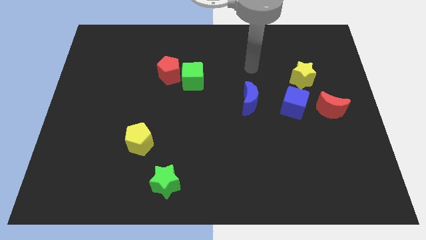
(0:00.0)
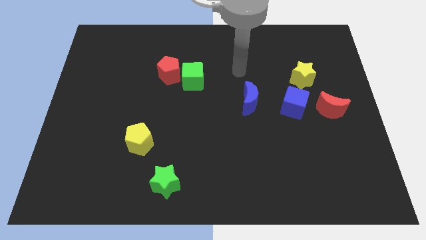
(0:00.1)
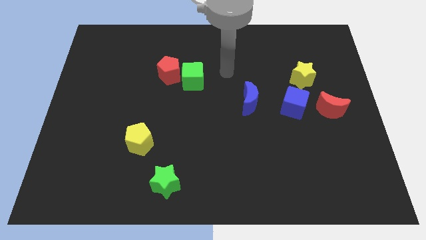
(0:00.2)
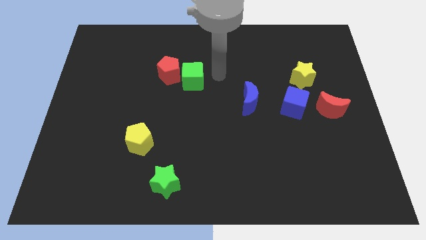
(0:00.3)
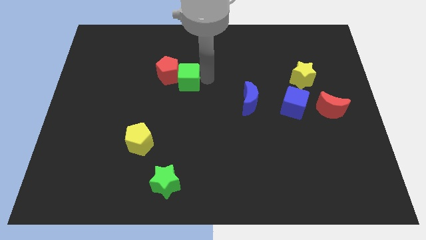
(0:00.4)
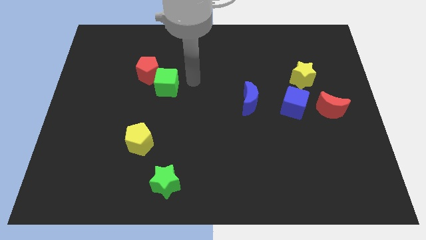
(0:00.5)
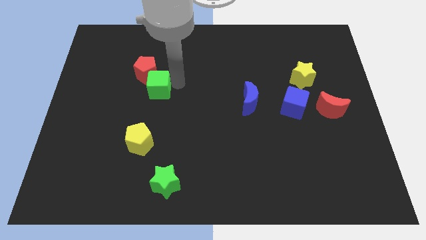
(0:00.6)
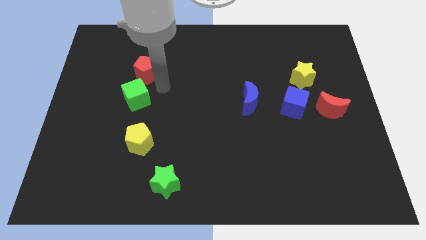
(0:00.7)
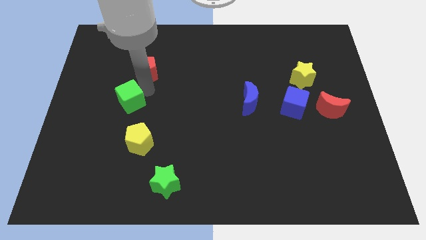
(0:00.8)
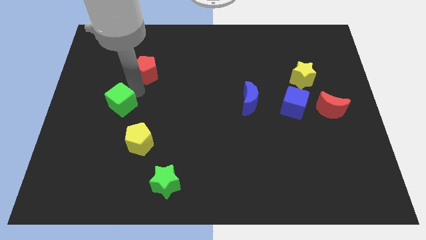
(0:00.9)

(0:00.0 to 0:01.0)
move the red pentagon away from the green cube

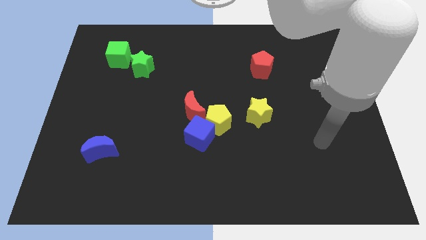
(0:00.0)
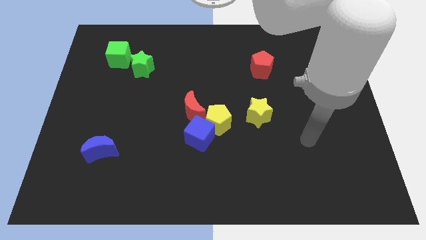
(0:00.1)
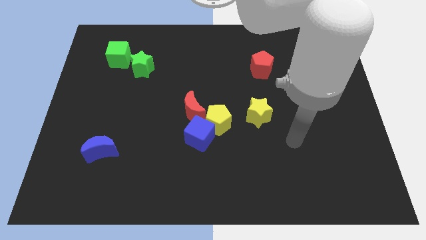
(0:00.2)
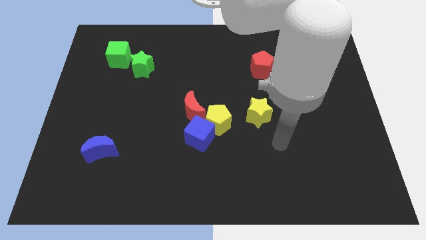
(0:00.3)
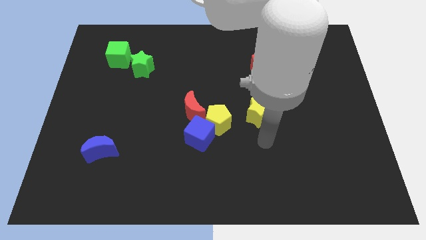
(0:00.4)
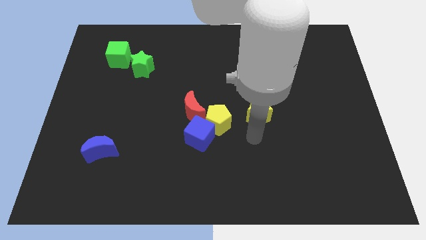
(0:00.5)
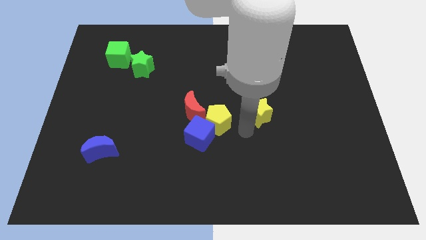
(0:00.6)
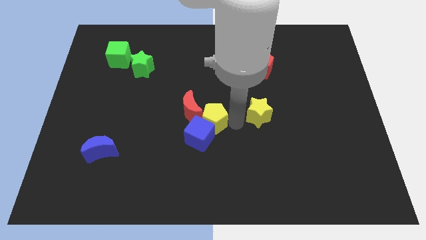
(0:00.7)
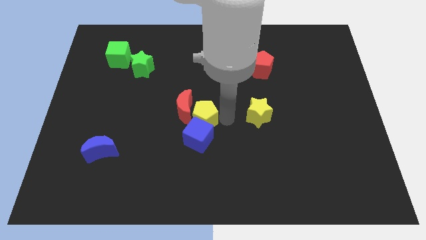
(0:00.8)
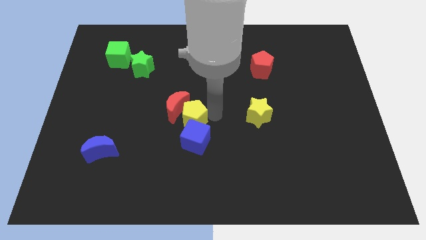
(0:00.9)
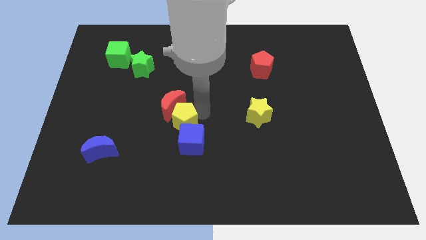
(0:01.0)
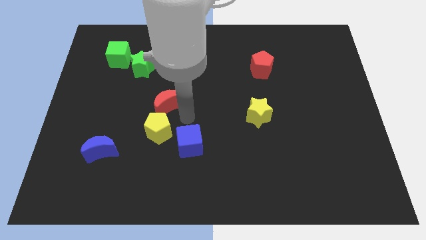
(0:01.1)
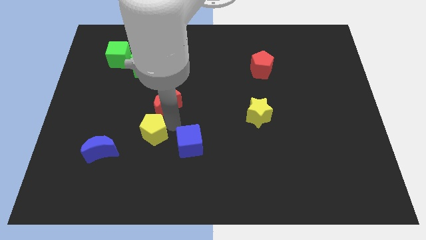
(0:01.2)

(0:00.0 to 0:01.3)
separate the blue cube from the yellow pentagon and red moon

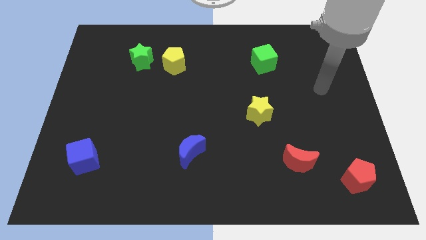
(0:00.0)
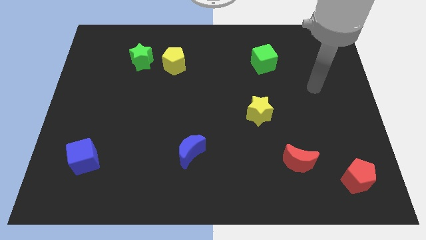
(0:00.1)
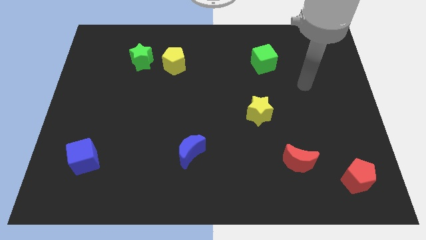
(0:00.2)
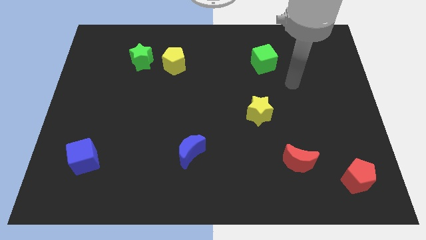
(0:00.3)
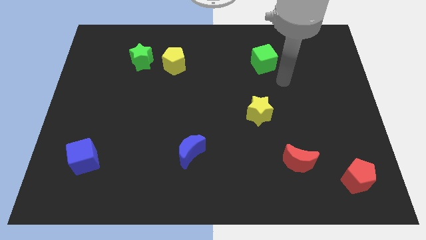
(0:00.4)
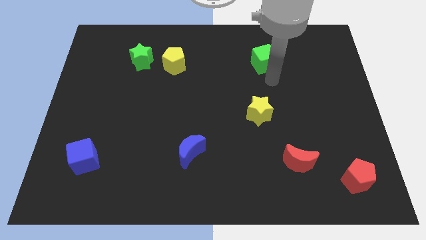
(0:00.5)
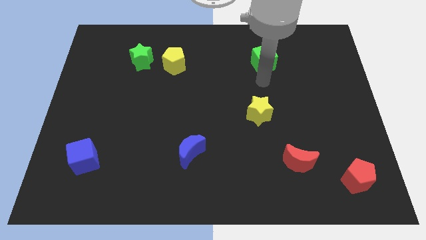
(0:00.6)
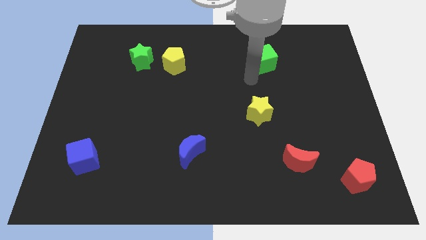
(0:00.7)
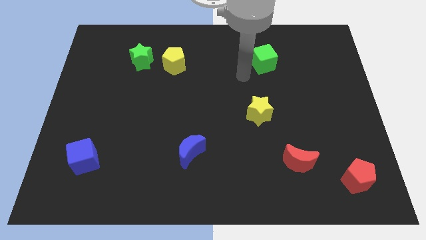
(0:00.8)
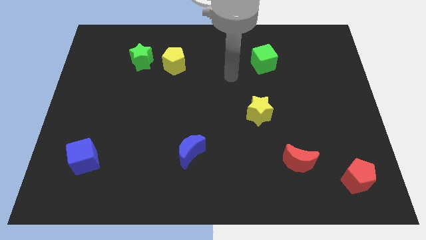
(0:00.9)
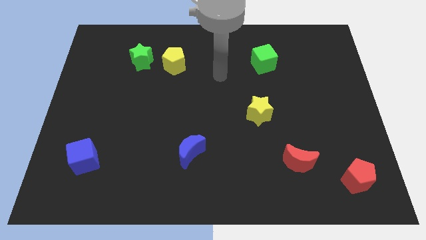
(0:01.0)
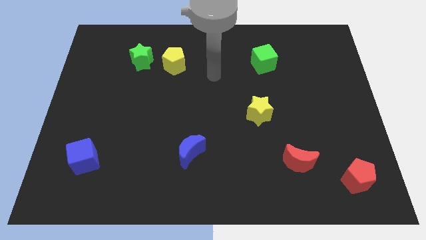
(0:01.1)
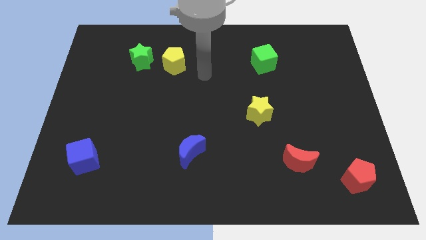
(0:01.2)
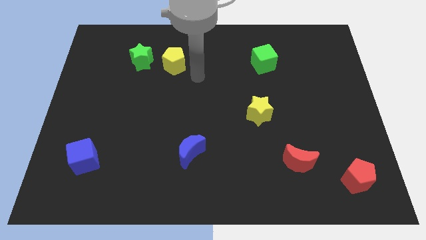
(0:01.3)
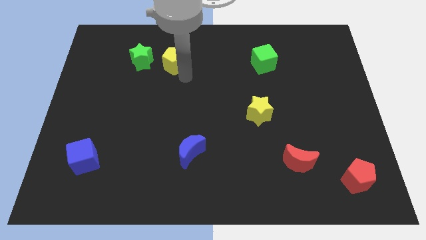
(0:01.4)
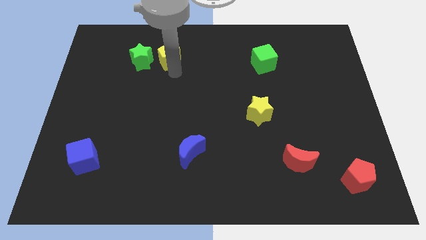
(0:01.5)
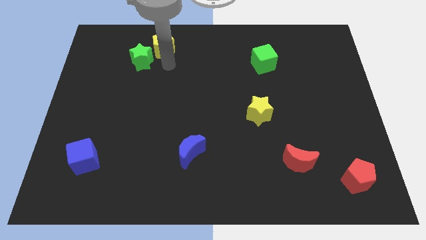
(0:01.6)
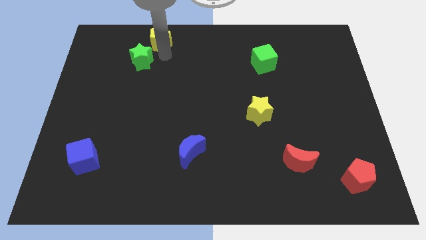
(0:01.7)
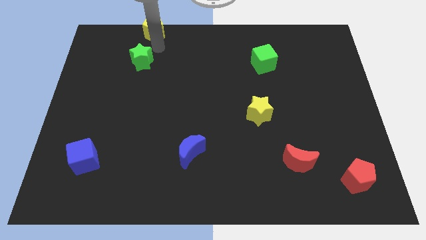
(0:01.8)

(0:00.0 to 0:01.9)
move the green star away from the yellow pentagon

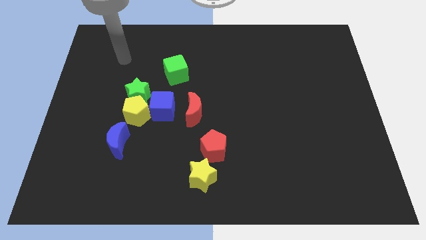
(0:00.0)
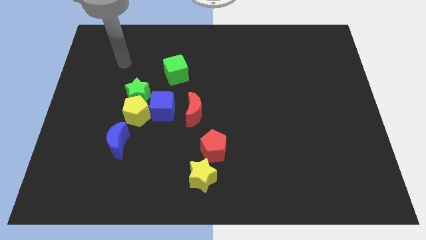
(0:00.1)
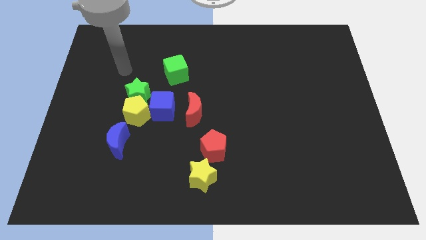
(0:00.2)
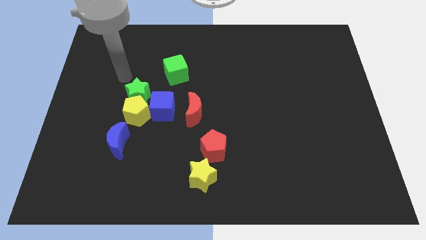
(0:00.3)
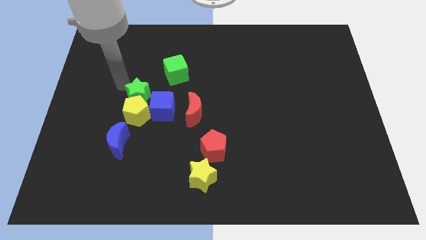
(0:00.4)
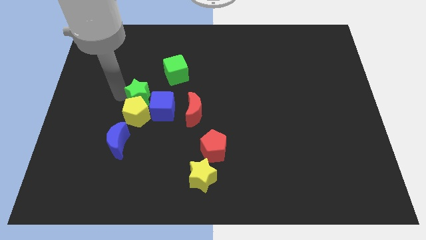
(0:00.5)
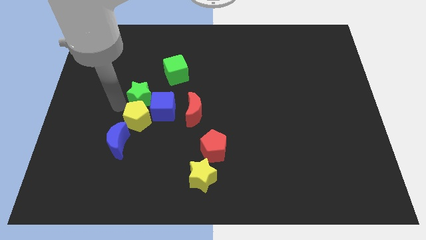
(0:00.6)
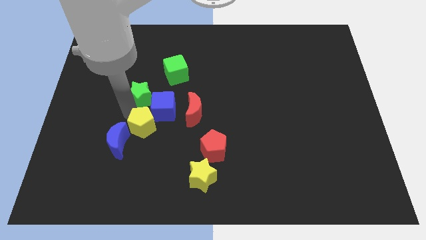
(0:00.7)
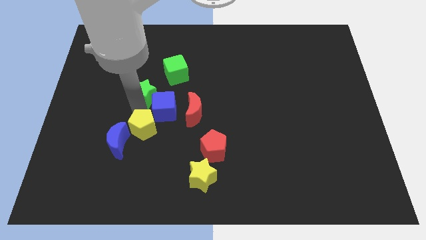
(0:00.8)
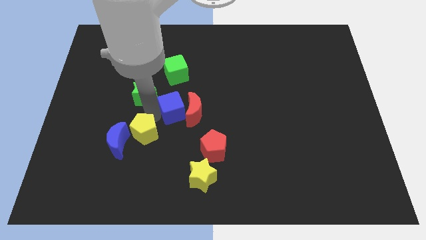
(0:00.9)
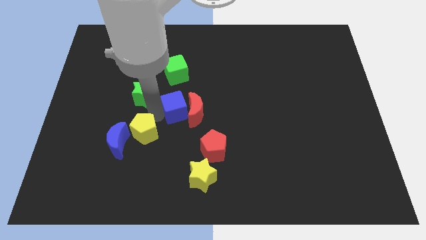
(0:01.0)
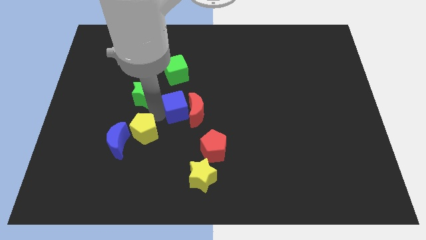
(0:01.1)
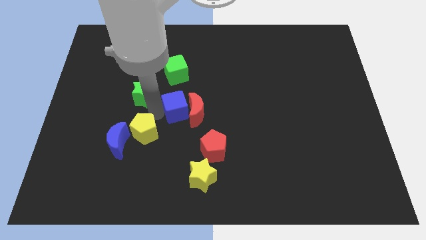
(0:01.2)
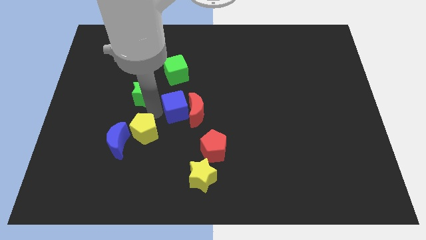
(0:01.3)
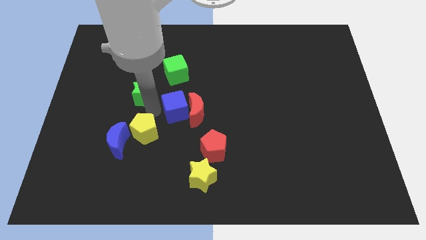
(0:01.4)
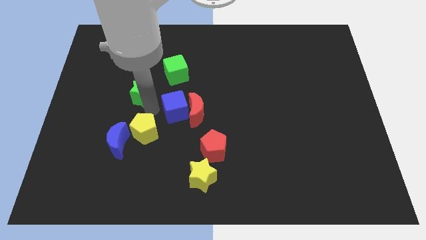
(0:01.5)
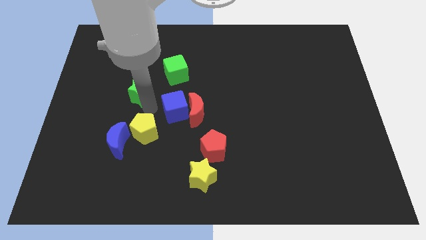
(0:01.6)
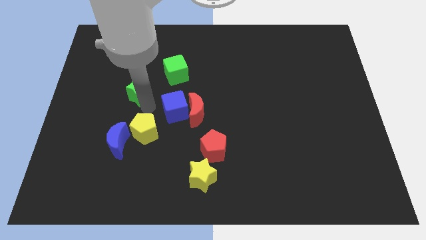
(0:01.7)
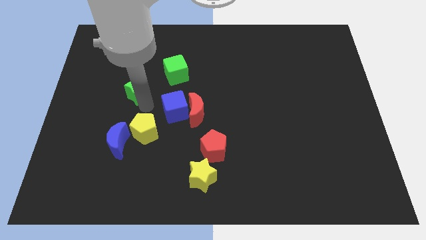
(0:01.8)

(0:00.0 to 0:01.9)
move the green star away from the yellow pentagon and blue cube

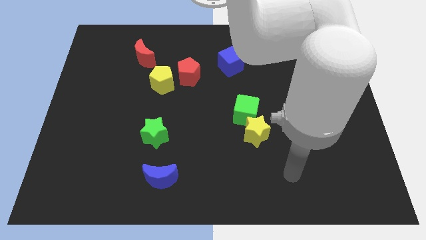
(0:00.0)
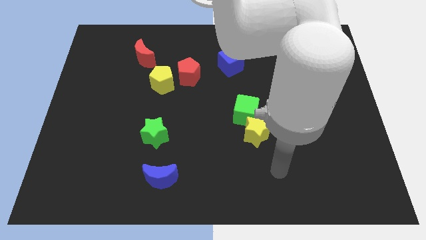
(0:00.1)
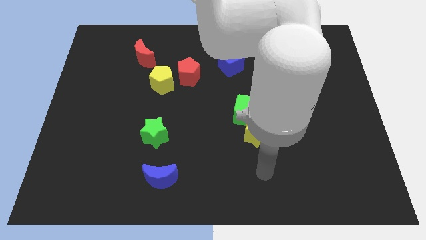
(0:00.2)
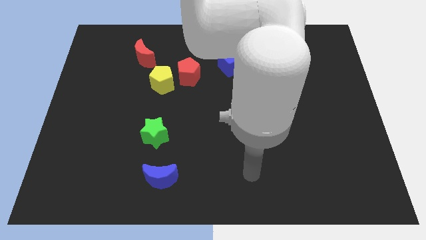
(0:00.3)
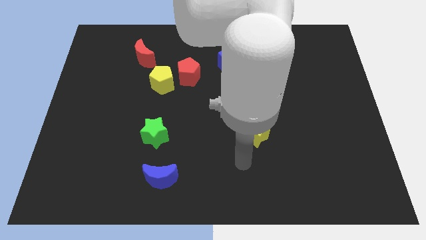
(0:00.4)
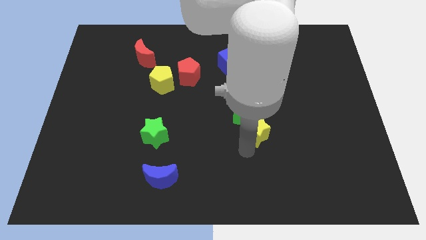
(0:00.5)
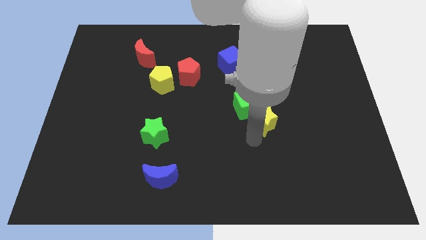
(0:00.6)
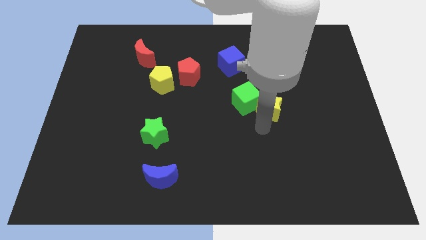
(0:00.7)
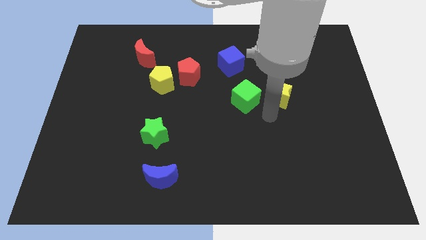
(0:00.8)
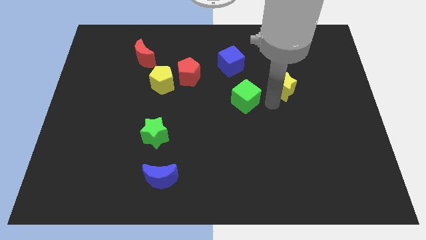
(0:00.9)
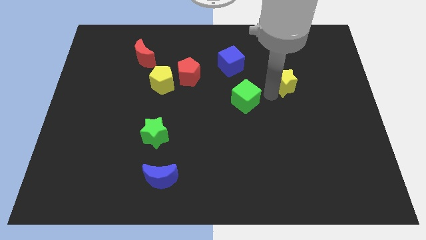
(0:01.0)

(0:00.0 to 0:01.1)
separate the green cube from the yellow star

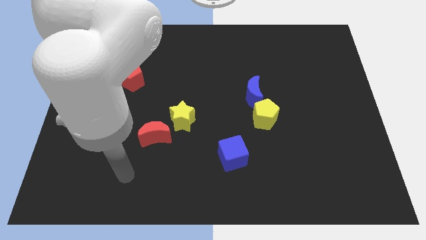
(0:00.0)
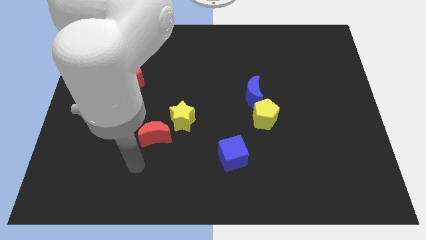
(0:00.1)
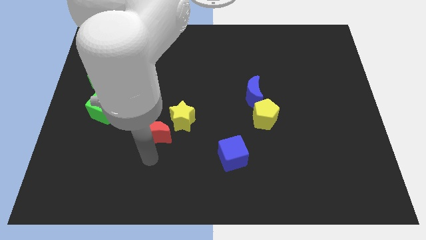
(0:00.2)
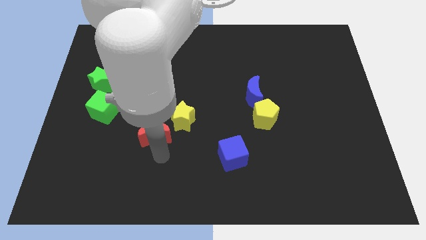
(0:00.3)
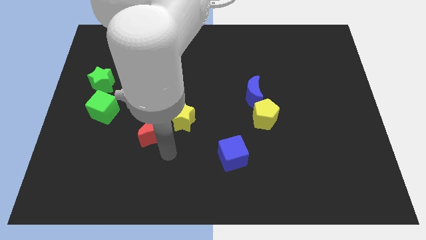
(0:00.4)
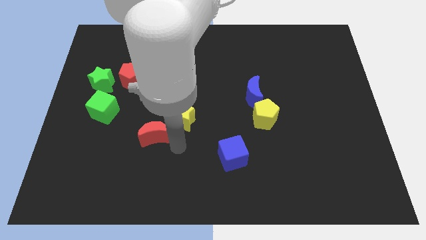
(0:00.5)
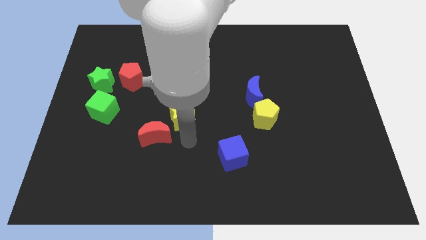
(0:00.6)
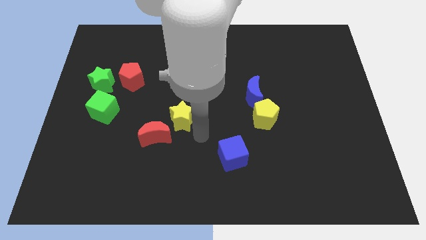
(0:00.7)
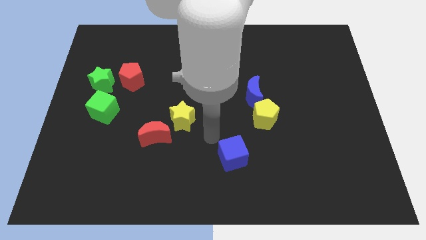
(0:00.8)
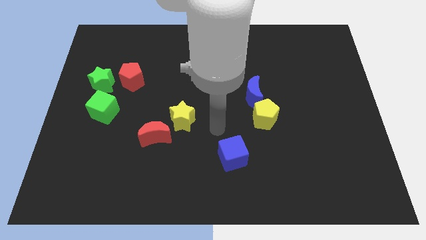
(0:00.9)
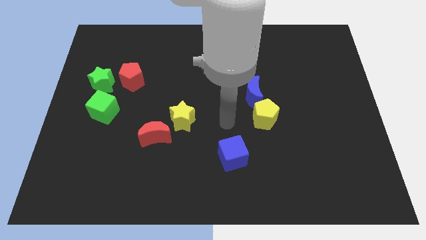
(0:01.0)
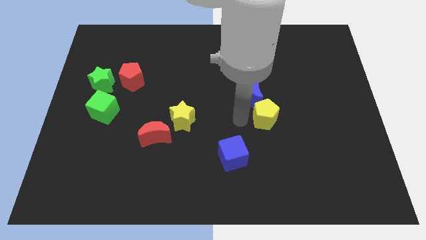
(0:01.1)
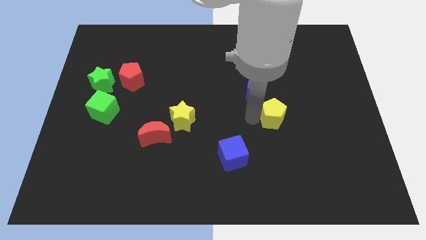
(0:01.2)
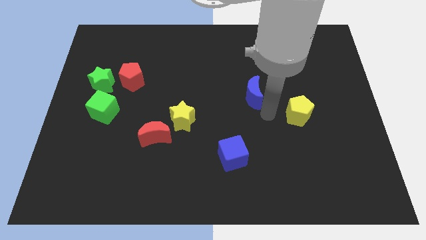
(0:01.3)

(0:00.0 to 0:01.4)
pull the blue moon apart from the yellow pentagon

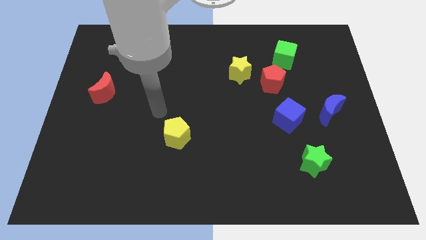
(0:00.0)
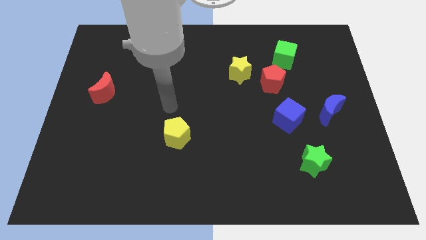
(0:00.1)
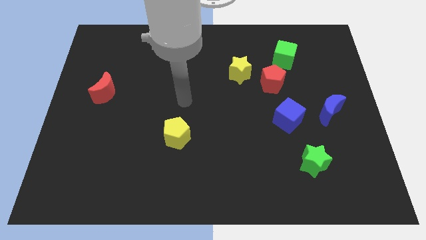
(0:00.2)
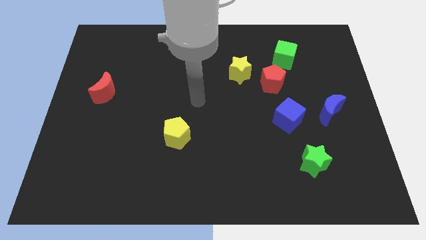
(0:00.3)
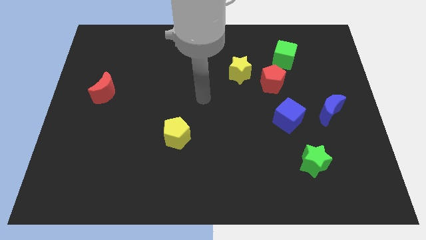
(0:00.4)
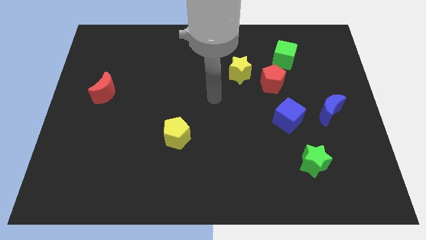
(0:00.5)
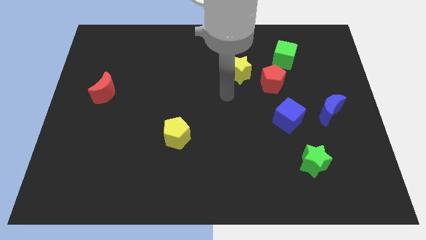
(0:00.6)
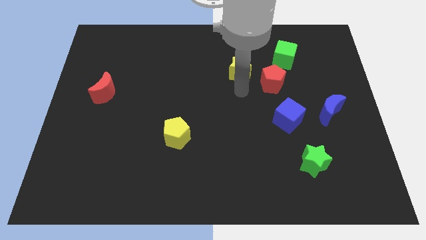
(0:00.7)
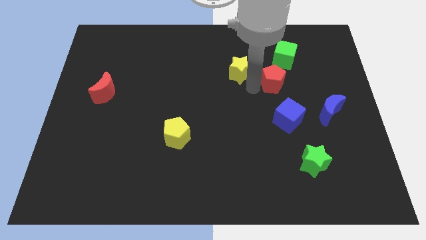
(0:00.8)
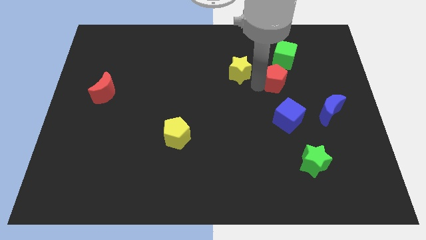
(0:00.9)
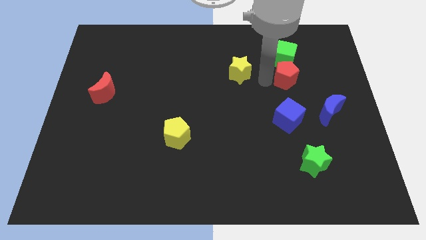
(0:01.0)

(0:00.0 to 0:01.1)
pull the yellow star apart from the red pentagon
